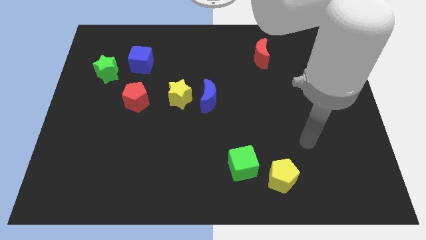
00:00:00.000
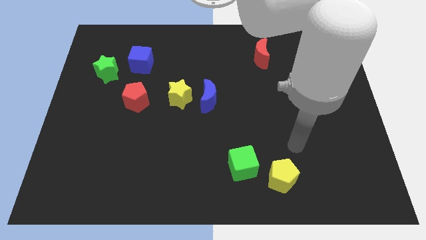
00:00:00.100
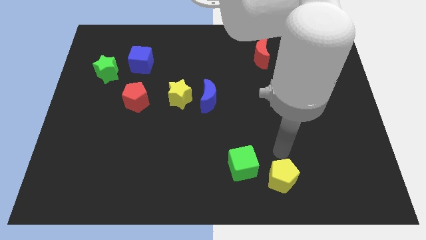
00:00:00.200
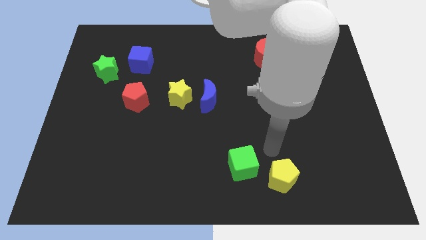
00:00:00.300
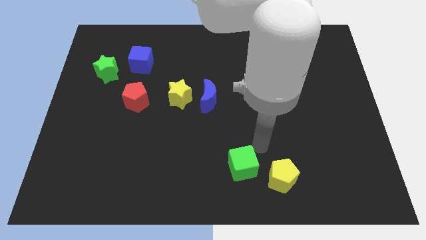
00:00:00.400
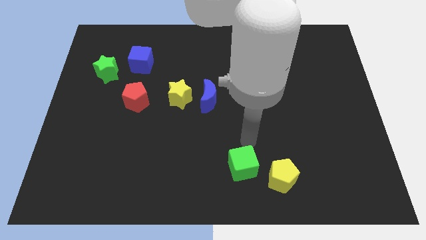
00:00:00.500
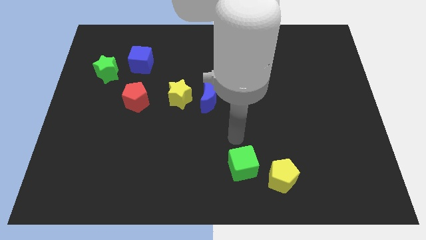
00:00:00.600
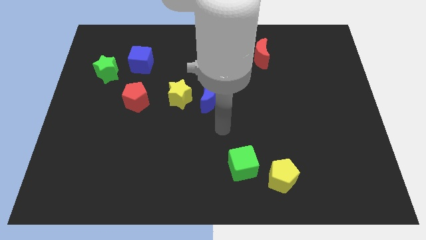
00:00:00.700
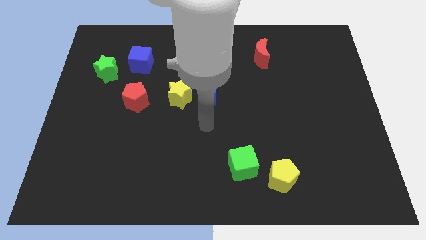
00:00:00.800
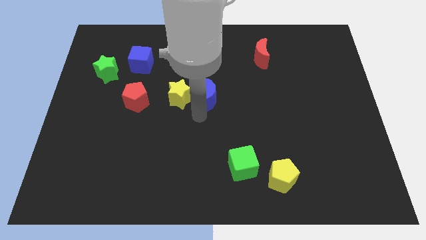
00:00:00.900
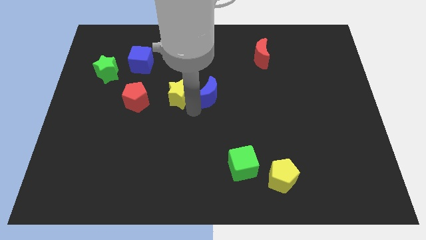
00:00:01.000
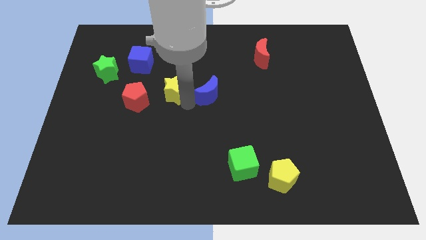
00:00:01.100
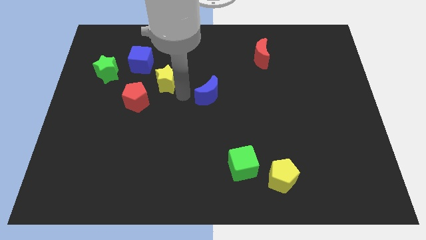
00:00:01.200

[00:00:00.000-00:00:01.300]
move the blue moon away from the yellow star

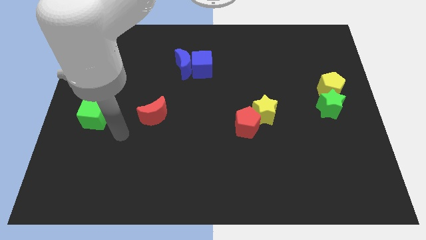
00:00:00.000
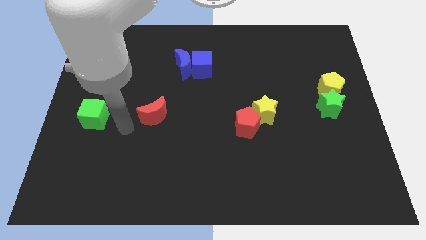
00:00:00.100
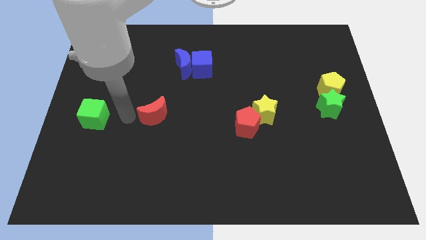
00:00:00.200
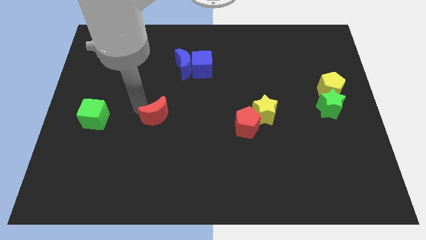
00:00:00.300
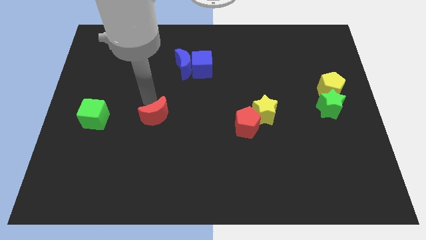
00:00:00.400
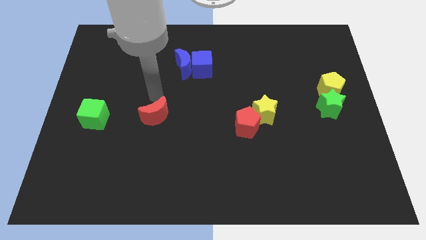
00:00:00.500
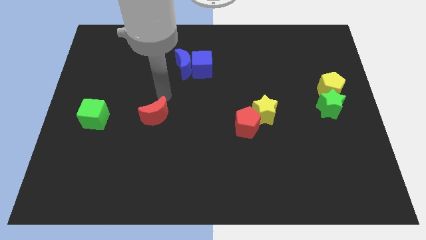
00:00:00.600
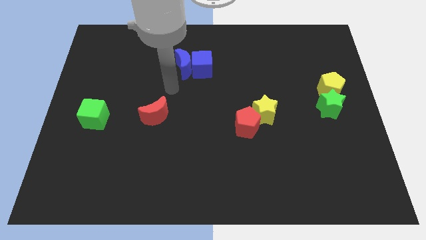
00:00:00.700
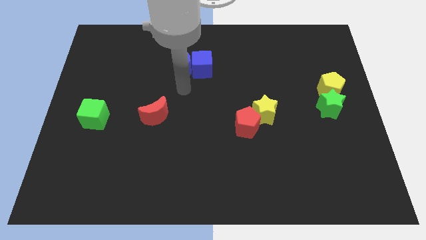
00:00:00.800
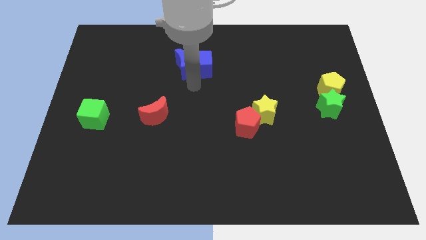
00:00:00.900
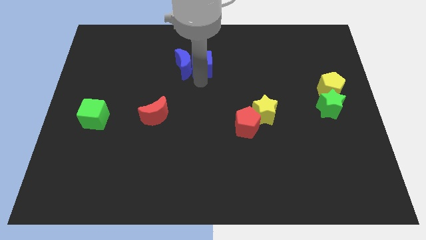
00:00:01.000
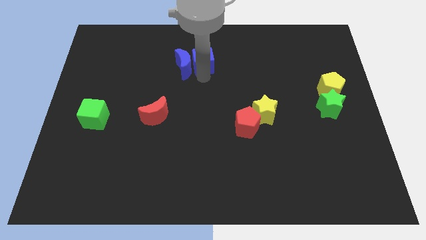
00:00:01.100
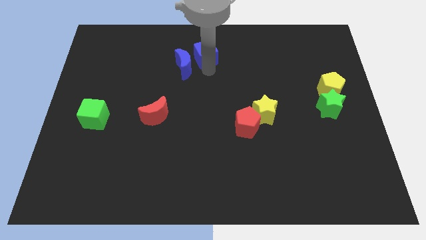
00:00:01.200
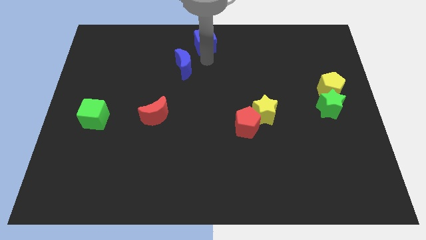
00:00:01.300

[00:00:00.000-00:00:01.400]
move the blue moon away from the blue cube

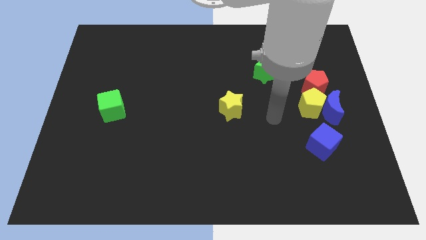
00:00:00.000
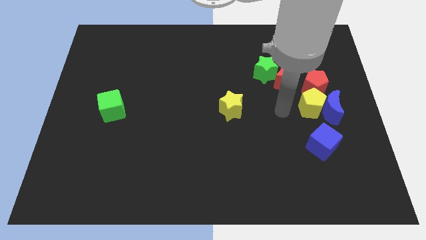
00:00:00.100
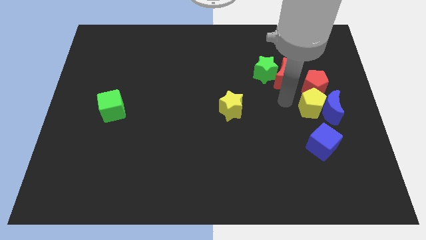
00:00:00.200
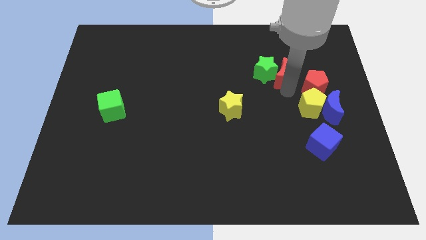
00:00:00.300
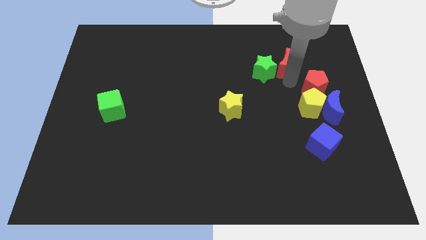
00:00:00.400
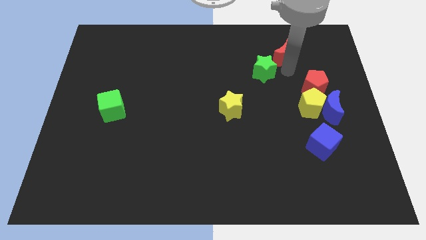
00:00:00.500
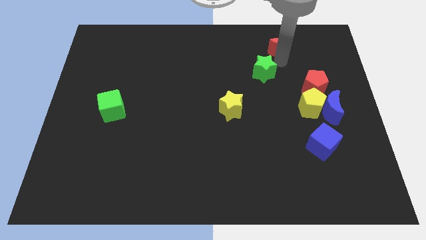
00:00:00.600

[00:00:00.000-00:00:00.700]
move the green star away from the red moon

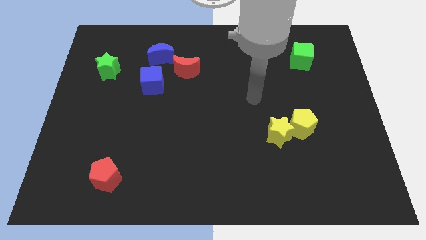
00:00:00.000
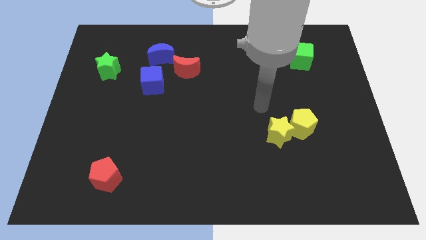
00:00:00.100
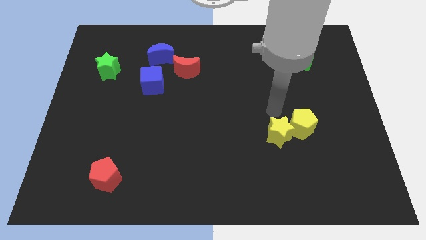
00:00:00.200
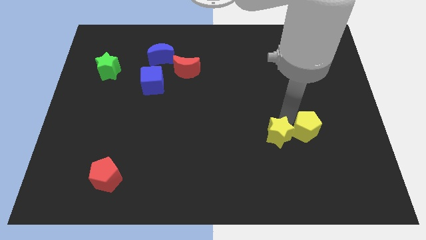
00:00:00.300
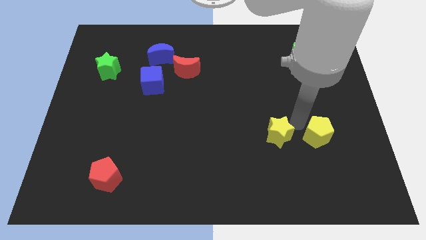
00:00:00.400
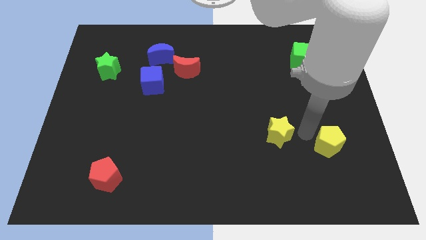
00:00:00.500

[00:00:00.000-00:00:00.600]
pull the yellow star apart from the yellow pentagon

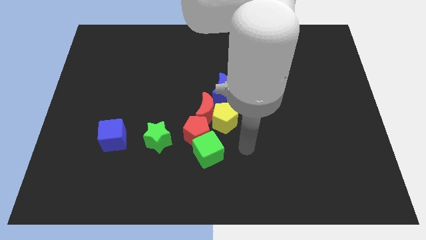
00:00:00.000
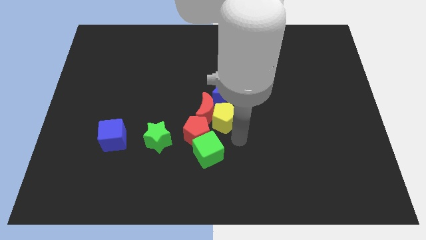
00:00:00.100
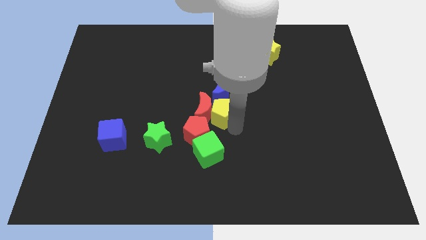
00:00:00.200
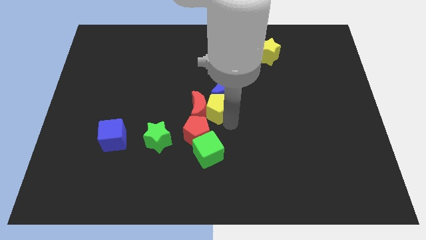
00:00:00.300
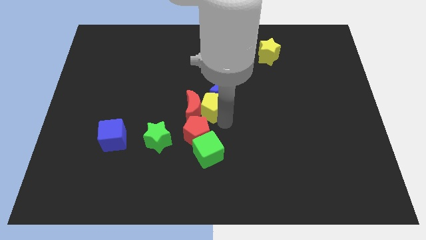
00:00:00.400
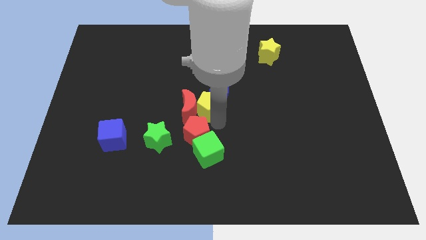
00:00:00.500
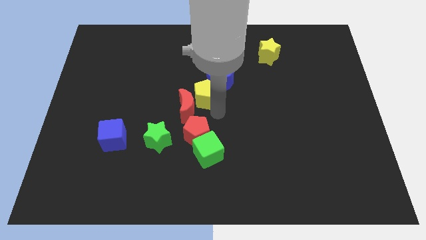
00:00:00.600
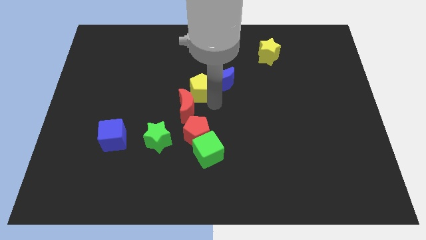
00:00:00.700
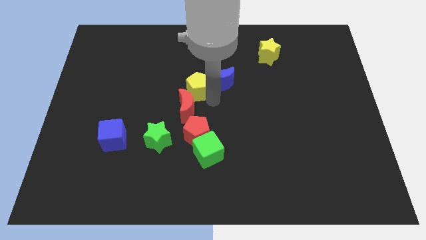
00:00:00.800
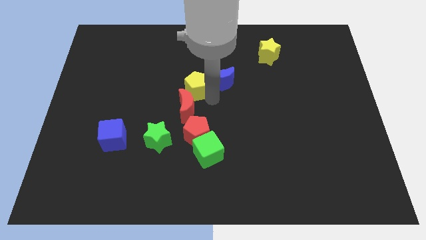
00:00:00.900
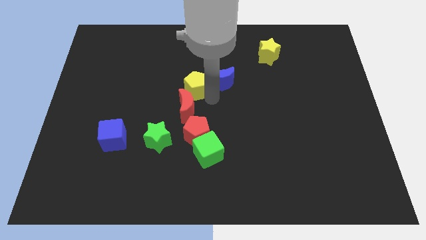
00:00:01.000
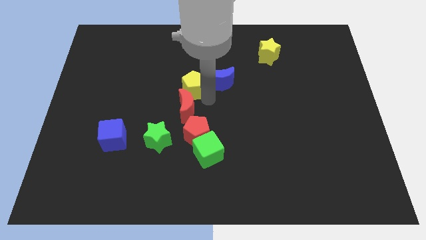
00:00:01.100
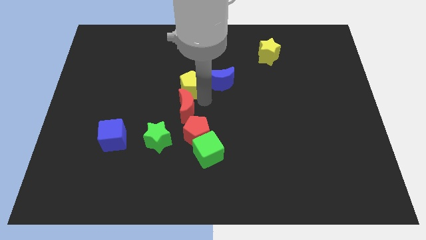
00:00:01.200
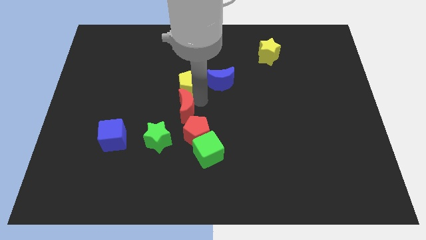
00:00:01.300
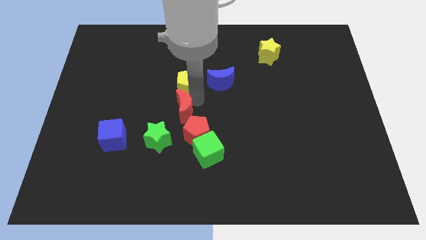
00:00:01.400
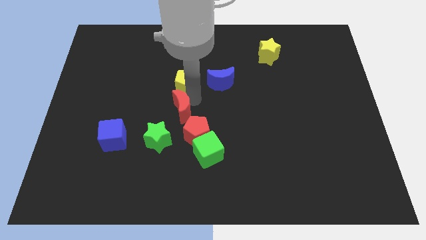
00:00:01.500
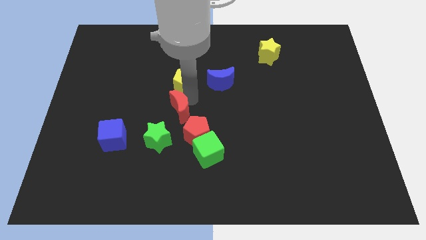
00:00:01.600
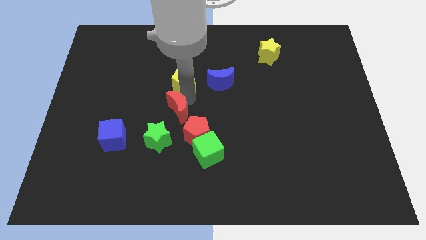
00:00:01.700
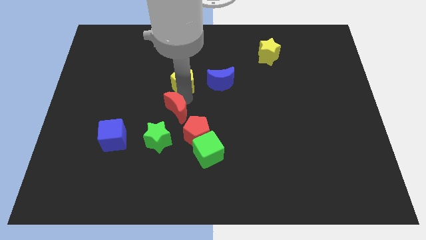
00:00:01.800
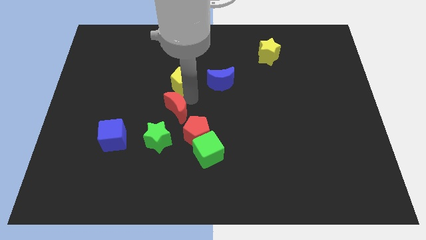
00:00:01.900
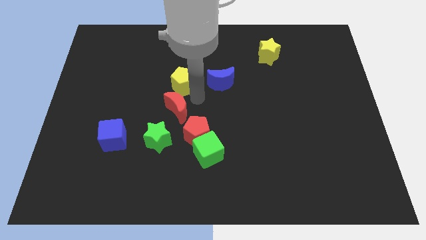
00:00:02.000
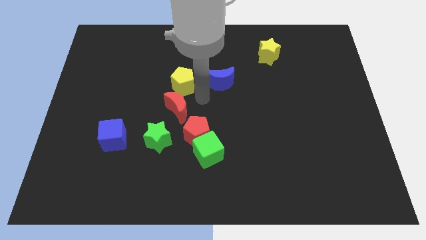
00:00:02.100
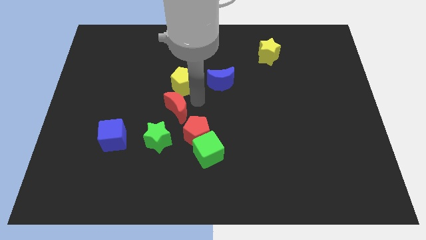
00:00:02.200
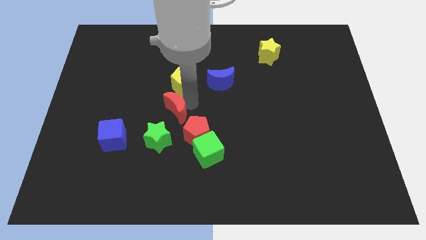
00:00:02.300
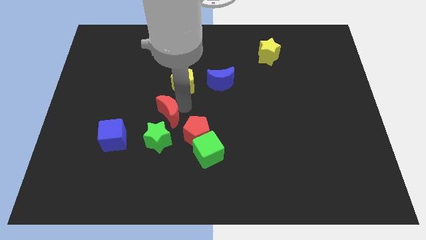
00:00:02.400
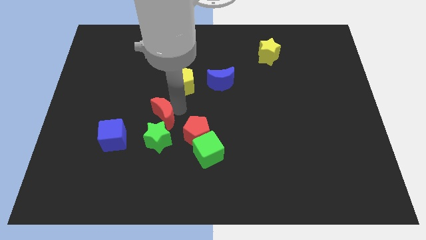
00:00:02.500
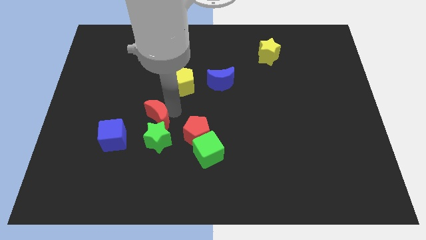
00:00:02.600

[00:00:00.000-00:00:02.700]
separate the red moon from the yellow pentagon, red pentagon, and blue moon

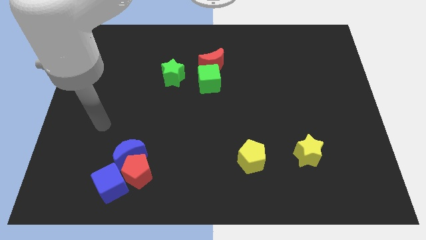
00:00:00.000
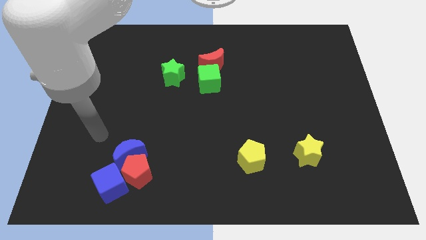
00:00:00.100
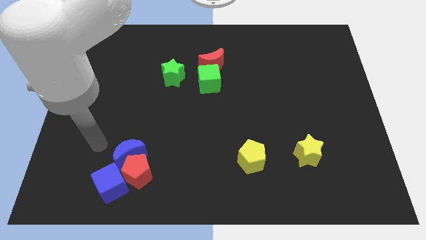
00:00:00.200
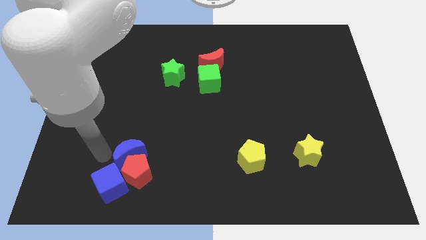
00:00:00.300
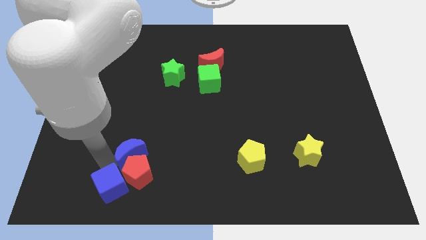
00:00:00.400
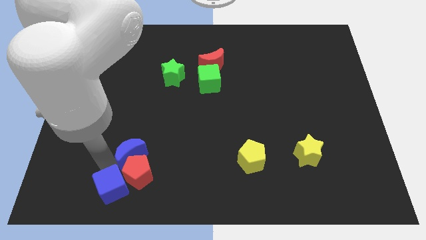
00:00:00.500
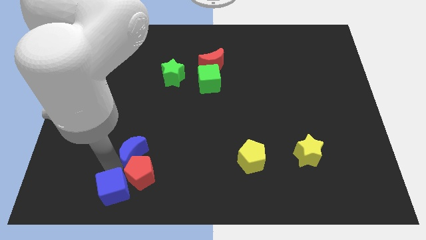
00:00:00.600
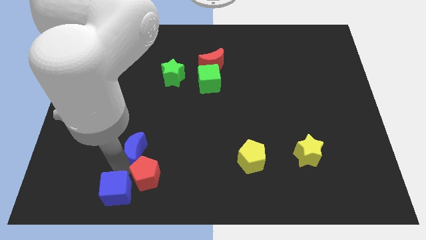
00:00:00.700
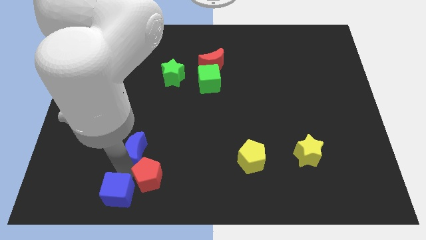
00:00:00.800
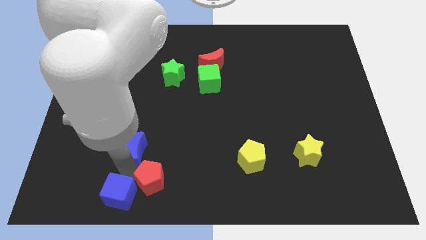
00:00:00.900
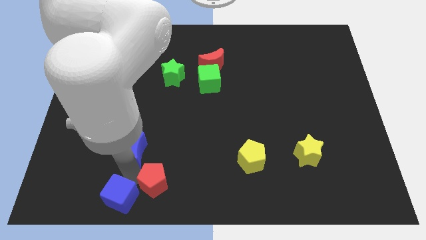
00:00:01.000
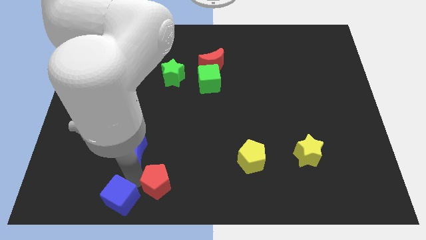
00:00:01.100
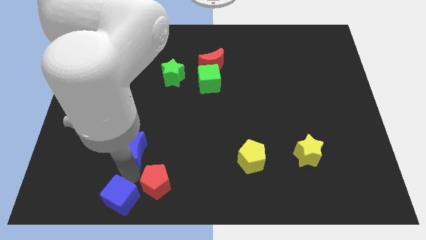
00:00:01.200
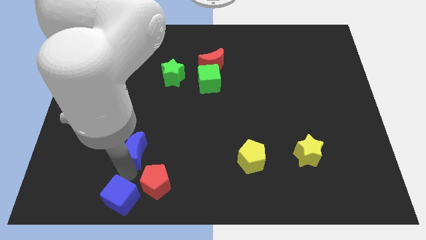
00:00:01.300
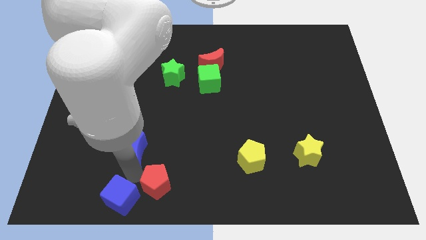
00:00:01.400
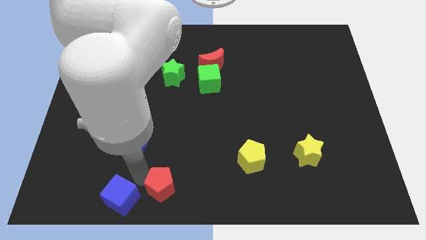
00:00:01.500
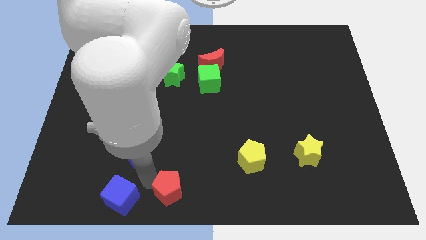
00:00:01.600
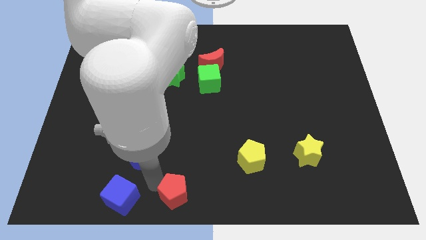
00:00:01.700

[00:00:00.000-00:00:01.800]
pull the red pentagon apart from the blue moon and blue cube

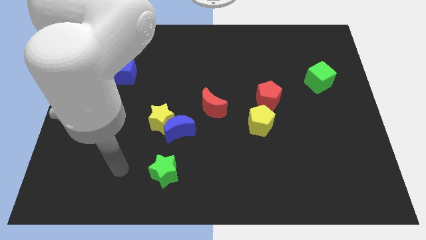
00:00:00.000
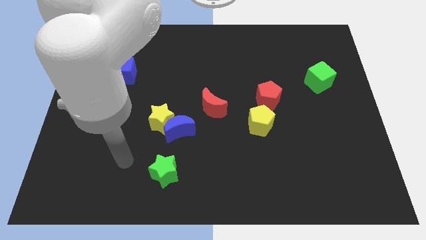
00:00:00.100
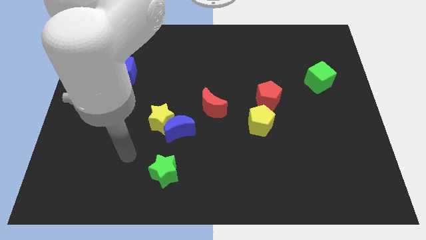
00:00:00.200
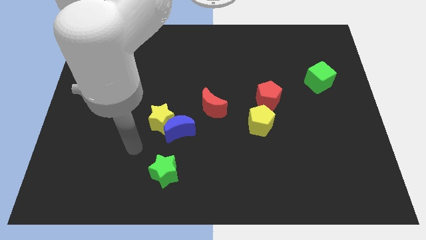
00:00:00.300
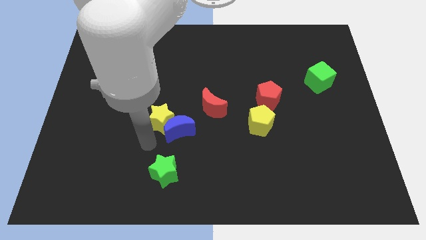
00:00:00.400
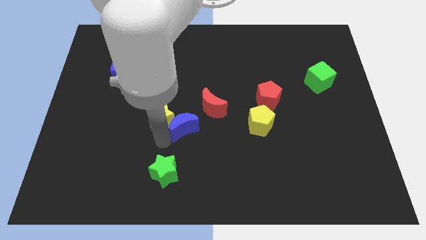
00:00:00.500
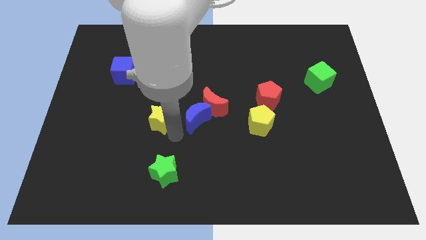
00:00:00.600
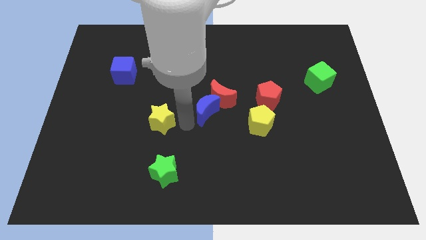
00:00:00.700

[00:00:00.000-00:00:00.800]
move the yellow star away from the blue moon
